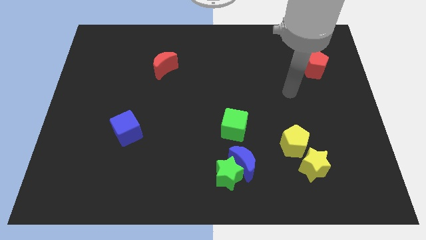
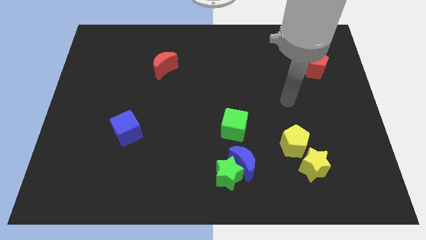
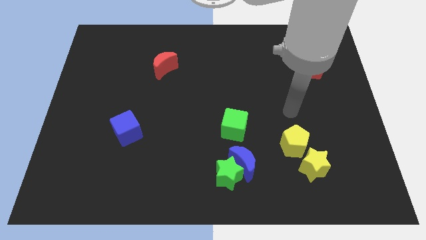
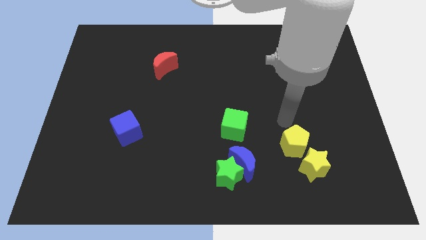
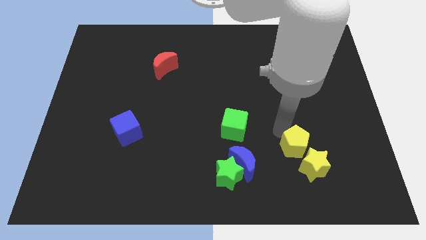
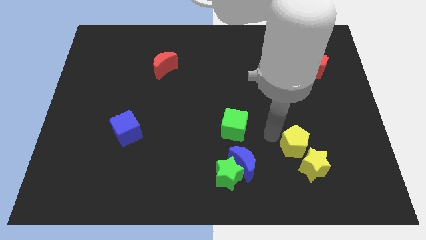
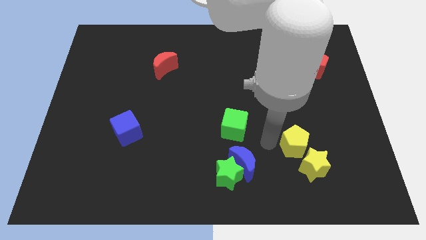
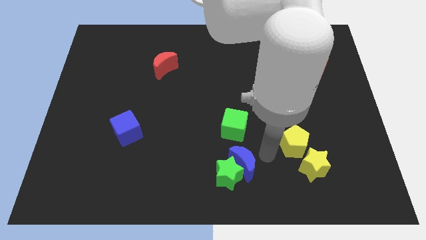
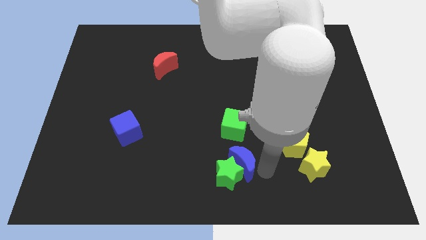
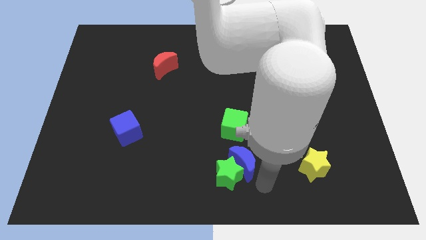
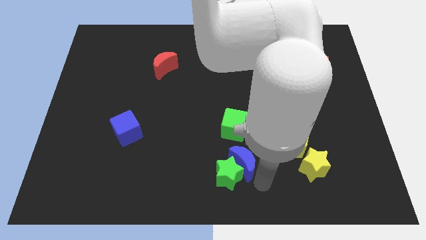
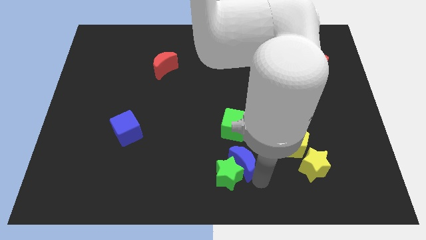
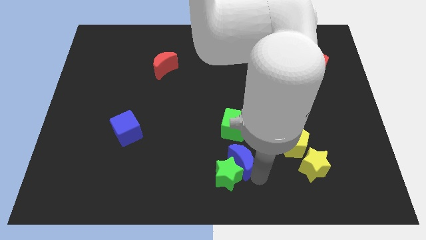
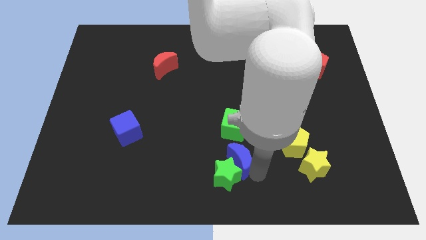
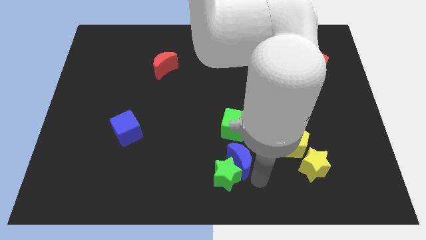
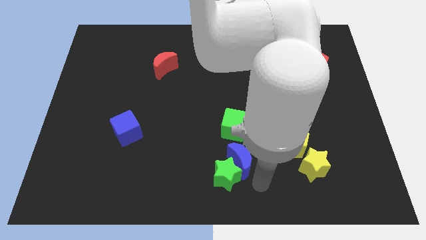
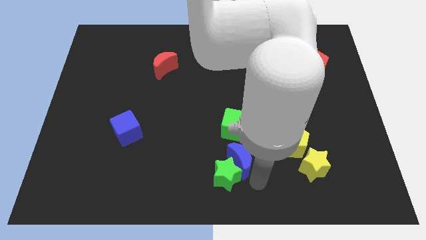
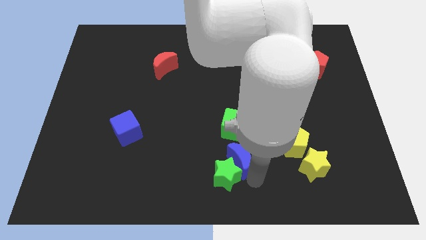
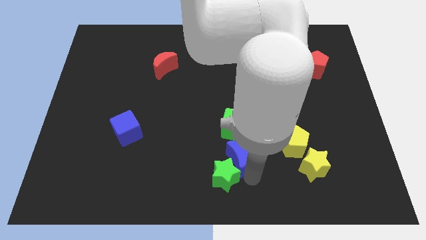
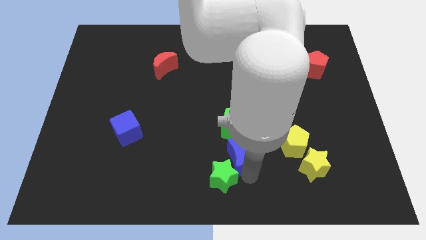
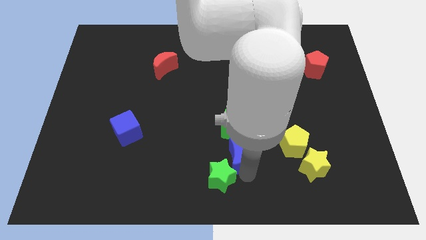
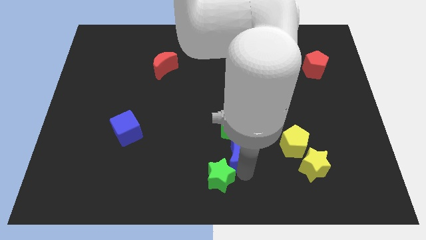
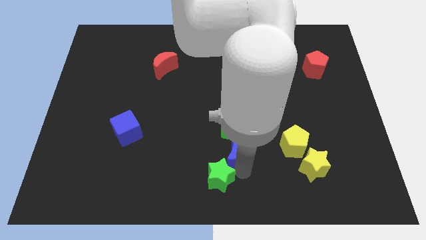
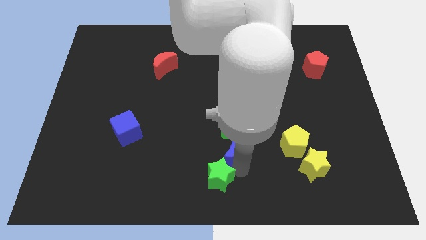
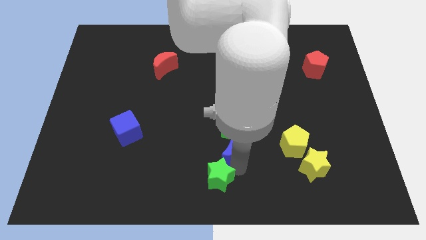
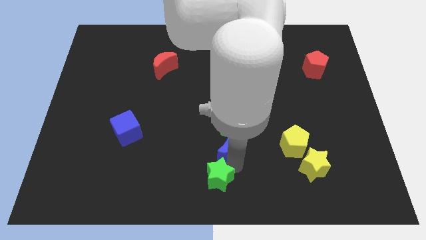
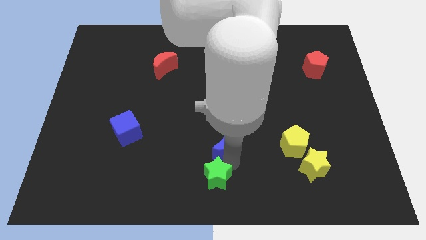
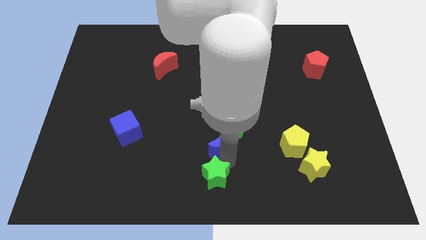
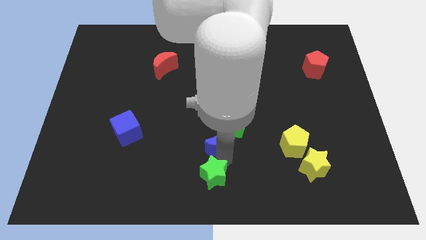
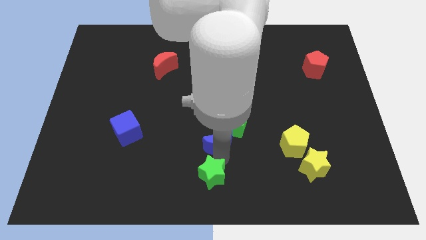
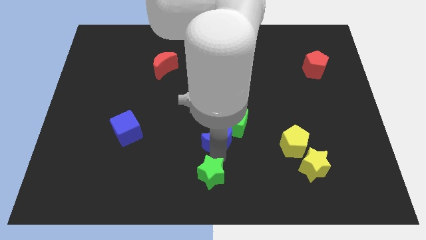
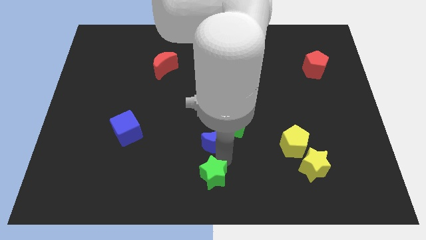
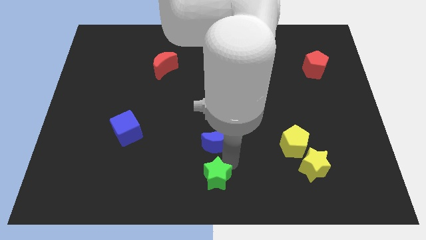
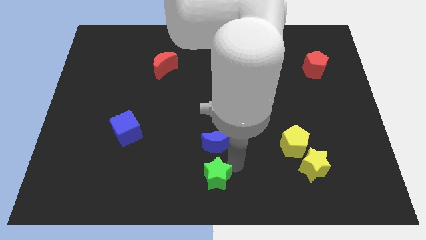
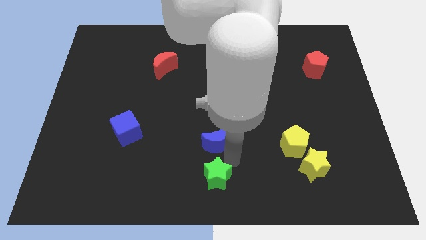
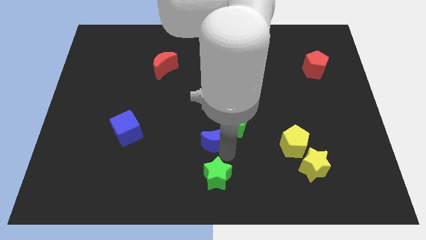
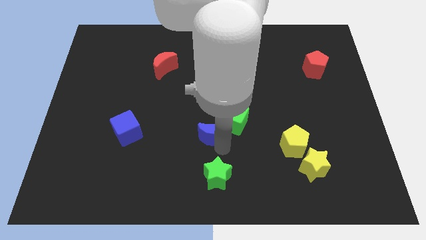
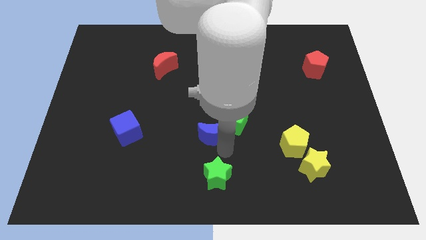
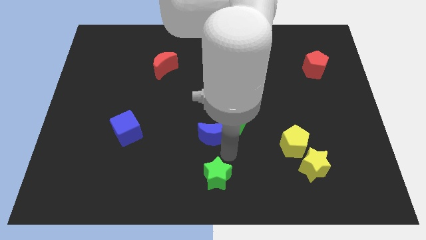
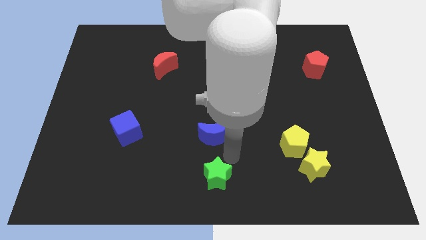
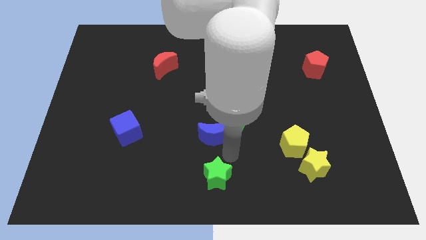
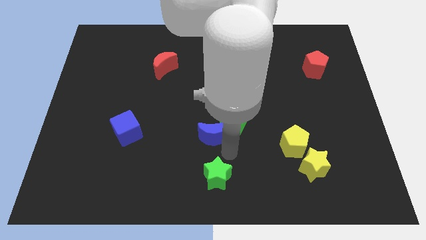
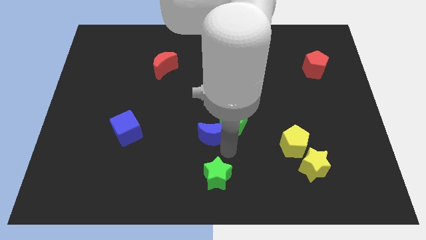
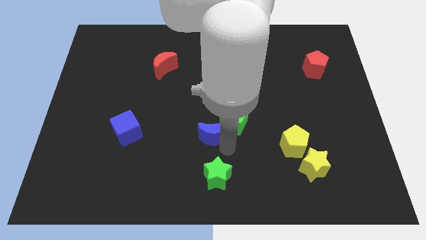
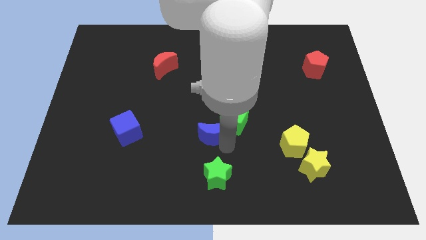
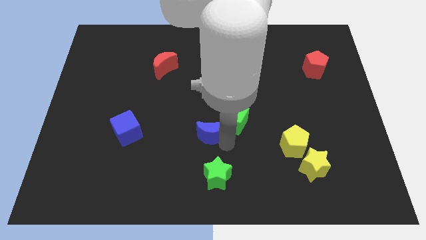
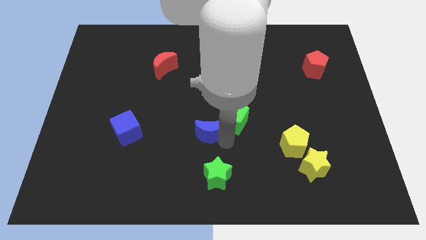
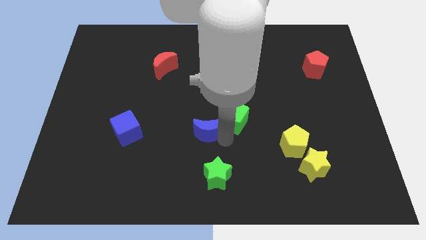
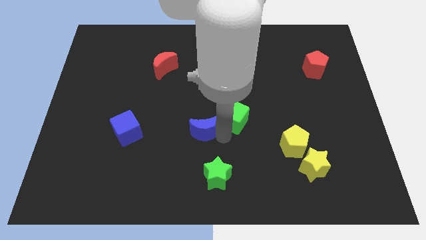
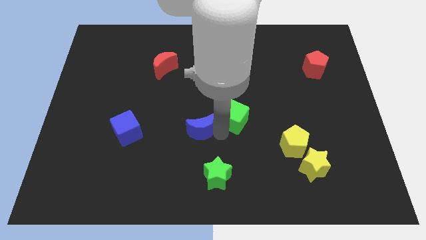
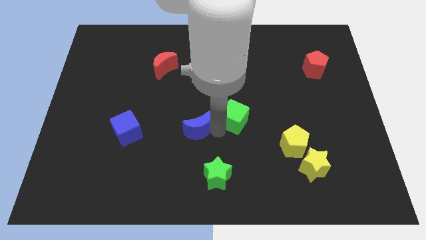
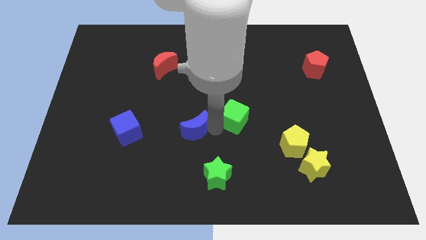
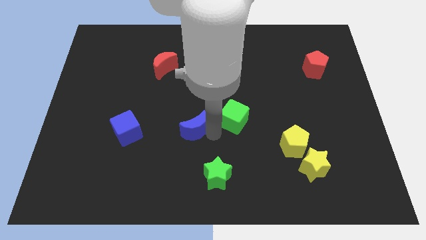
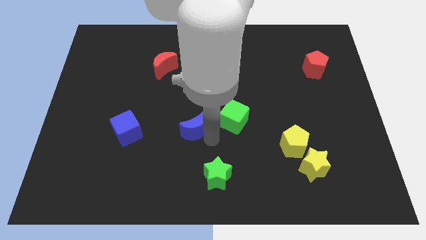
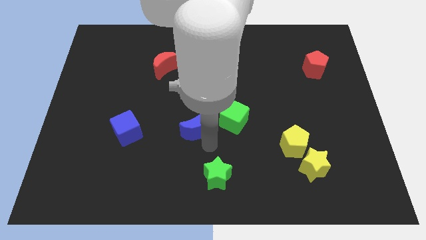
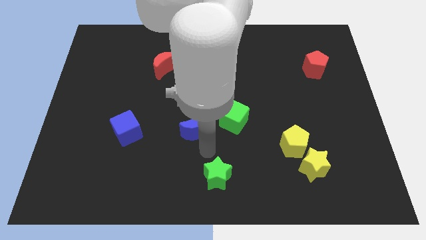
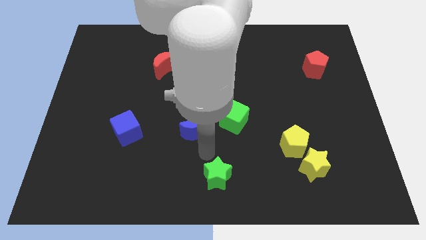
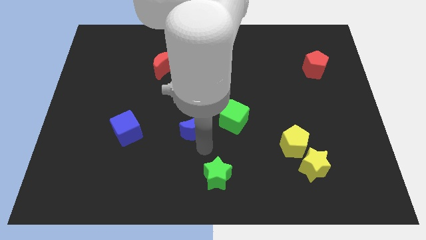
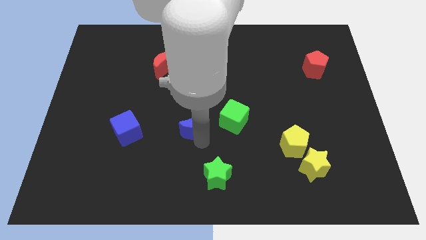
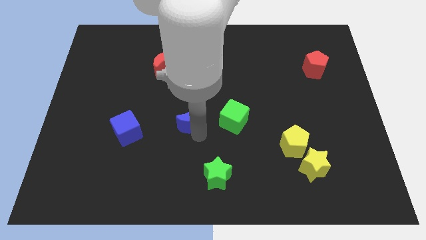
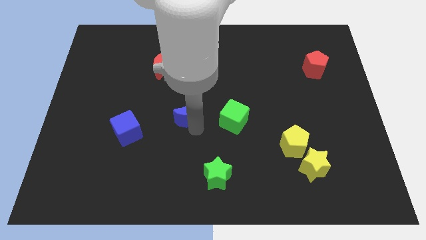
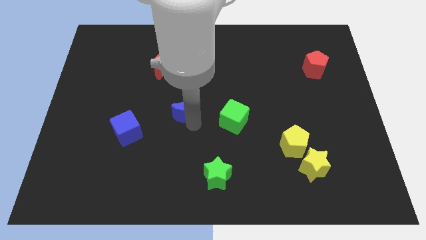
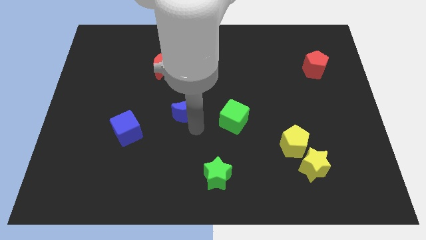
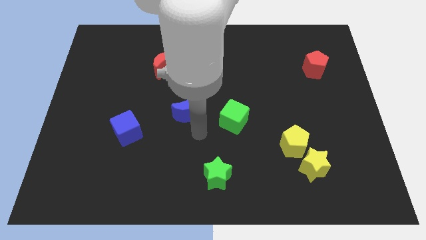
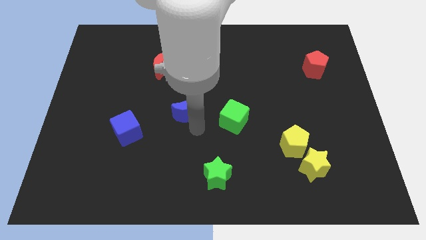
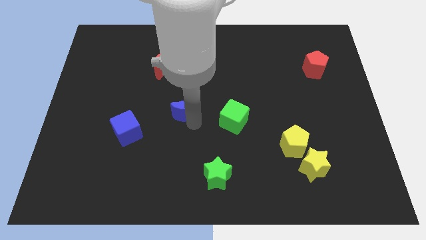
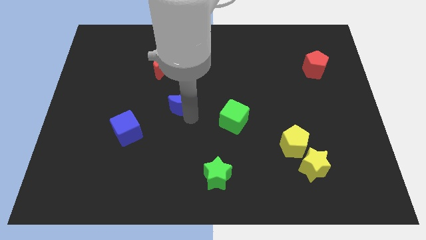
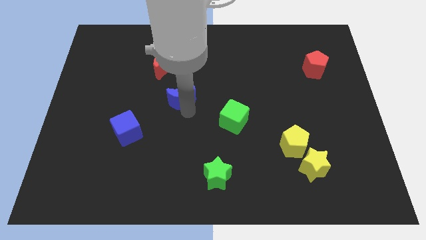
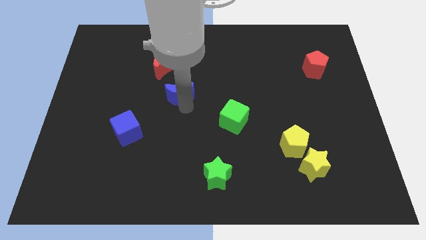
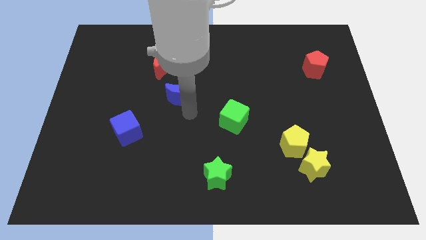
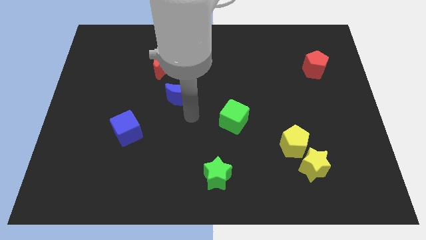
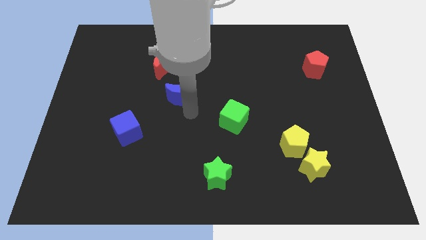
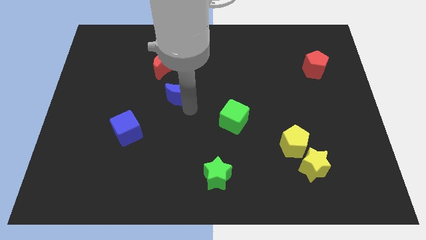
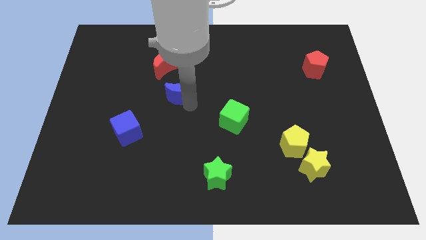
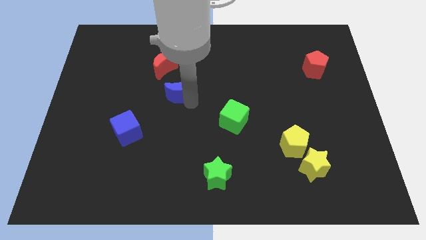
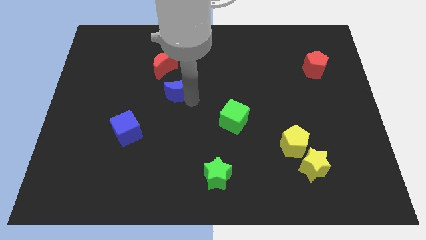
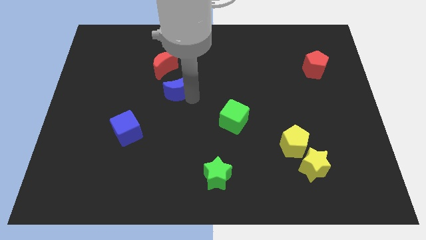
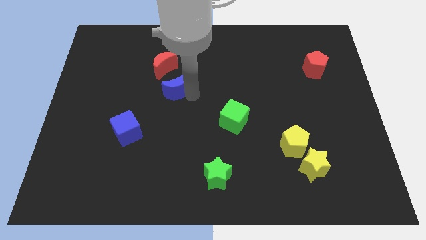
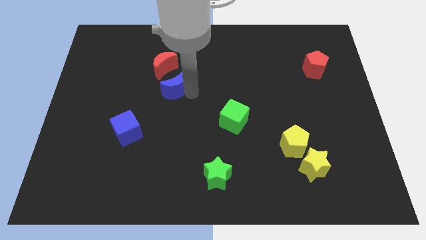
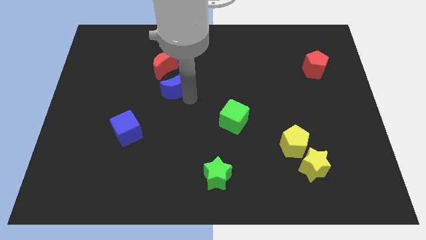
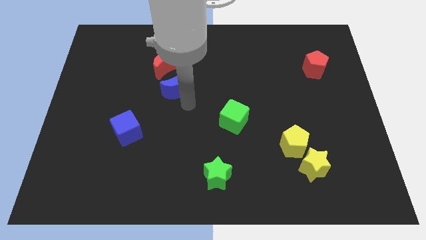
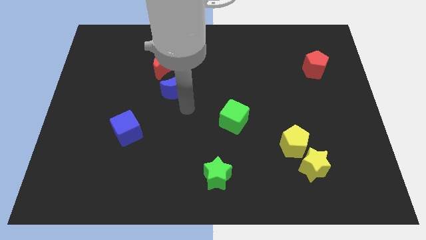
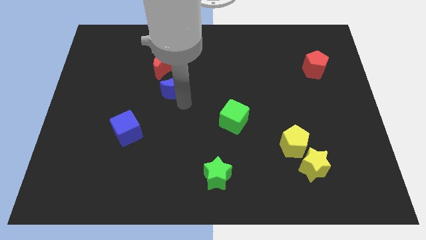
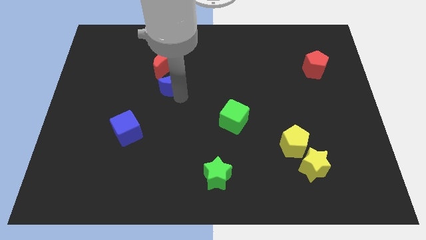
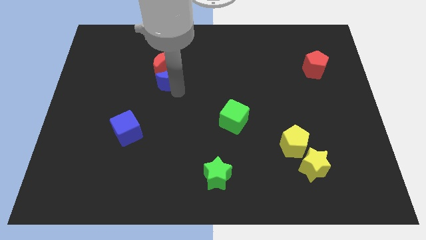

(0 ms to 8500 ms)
slide the blue moon close to the red moon
